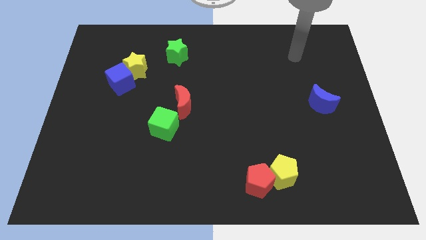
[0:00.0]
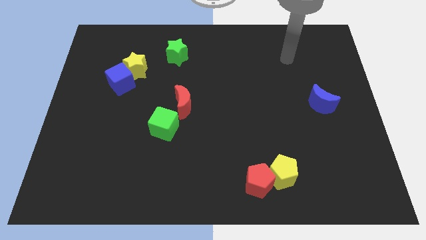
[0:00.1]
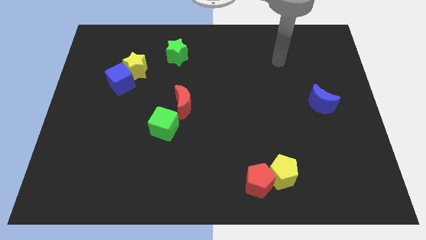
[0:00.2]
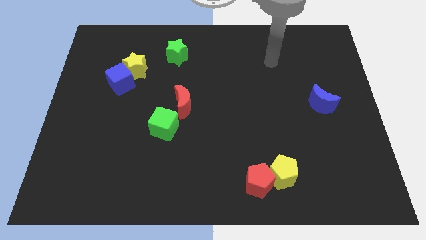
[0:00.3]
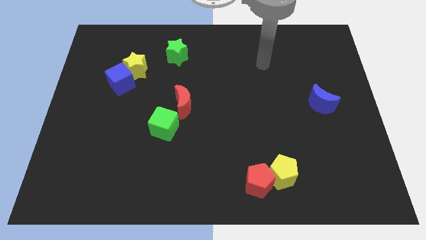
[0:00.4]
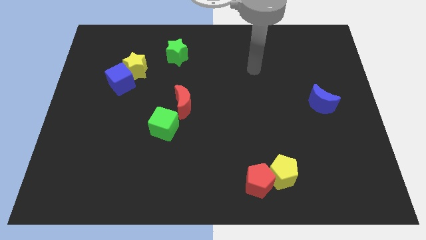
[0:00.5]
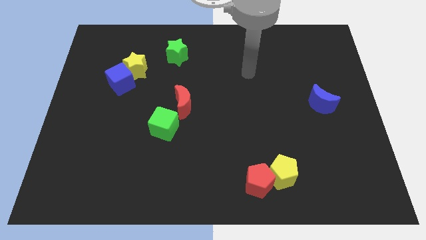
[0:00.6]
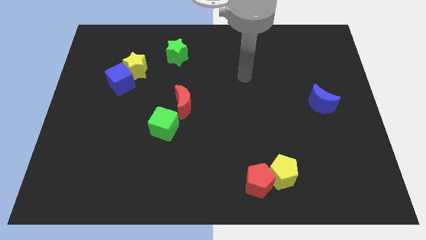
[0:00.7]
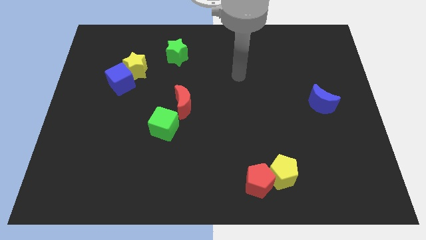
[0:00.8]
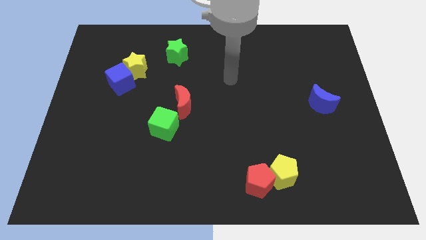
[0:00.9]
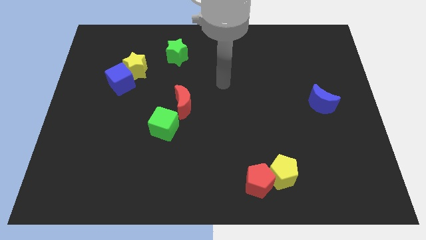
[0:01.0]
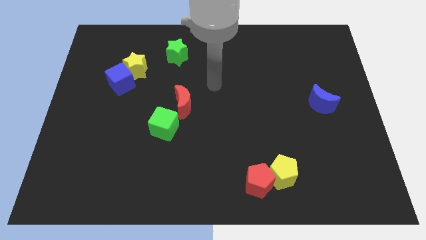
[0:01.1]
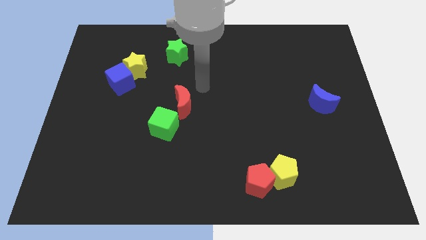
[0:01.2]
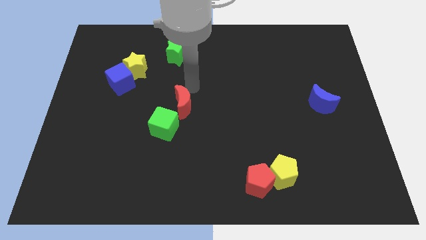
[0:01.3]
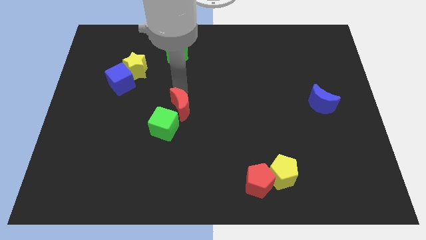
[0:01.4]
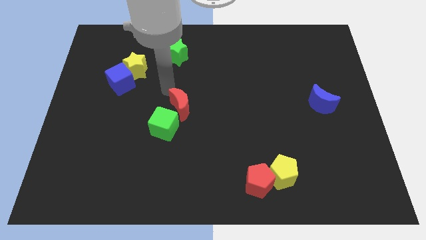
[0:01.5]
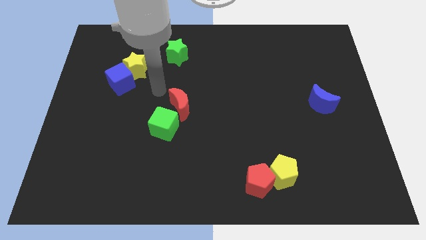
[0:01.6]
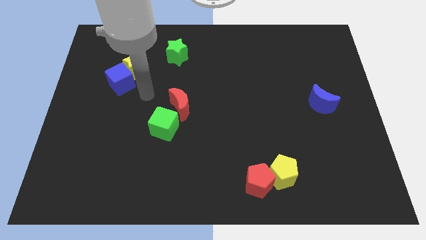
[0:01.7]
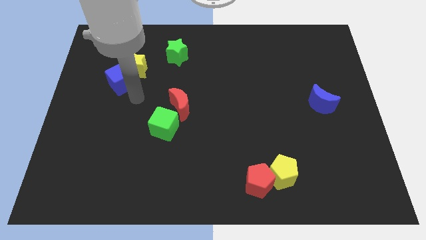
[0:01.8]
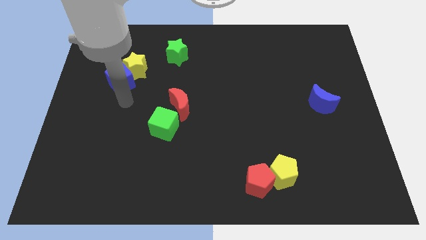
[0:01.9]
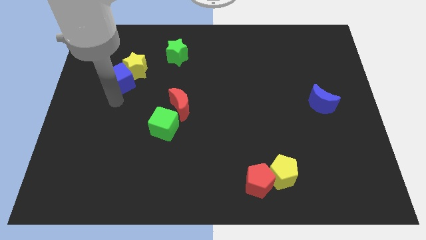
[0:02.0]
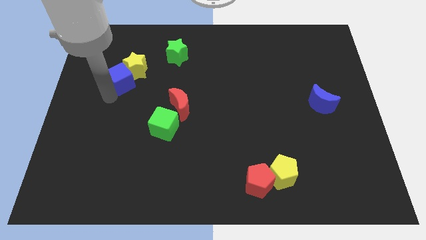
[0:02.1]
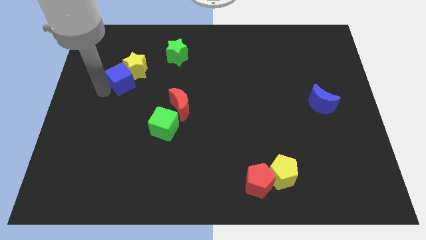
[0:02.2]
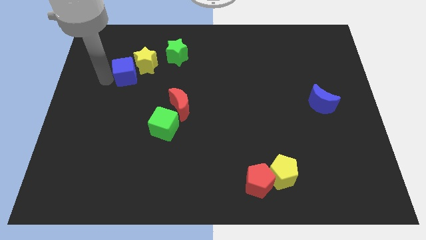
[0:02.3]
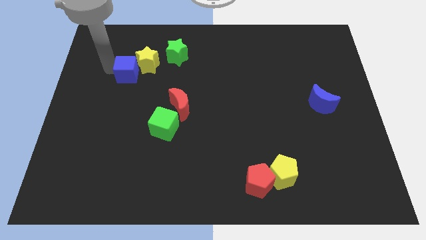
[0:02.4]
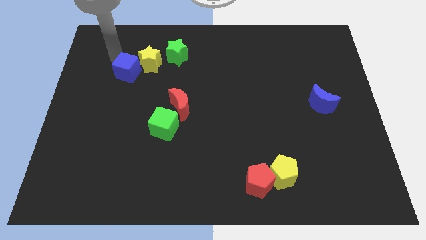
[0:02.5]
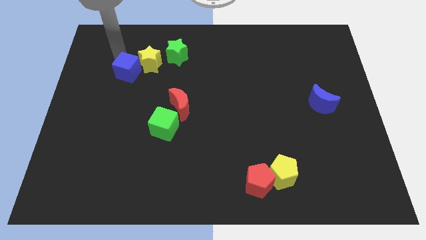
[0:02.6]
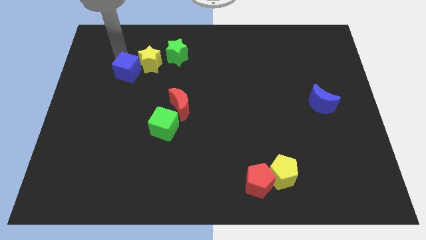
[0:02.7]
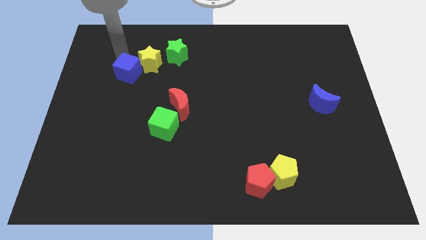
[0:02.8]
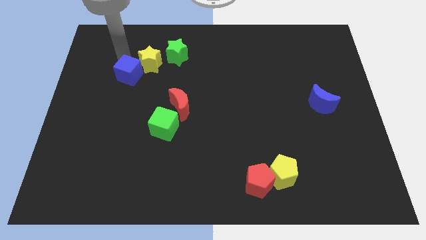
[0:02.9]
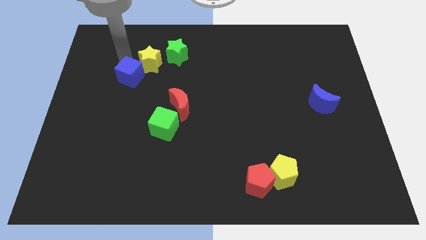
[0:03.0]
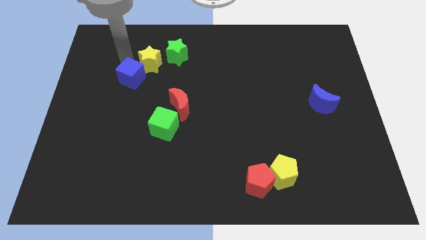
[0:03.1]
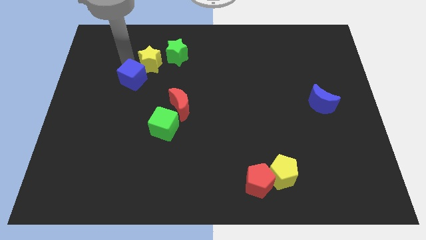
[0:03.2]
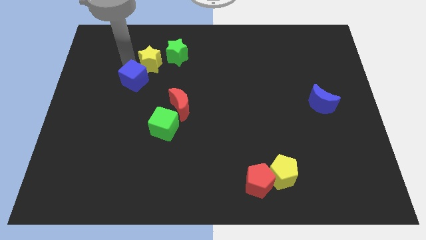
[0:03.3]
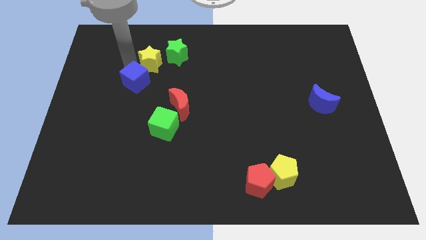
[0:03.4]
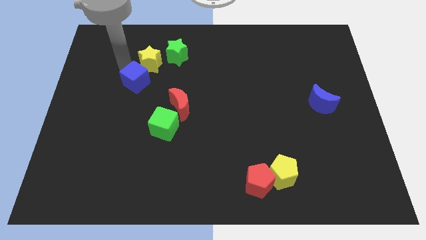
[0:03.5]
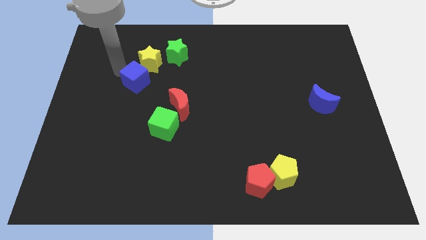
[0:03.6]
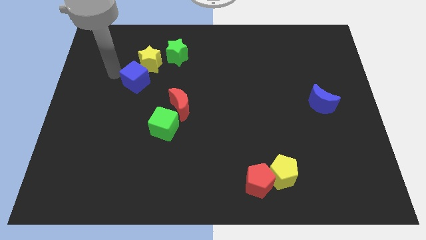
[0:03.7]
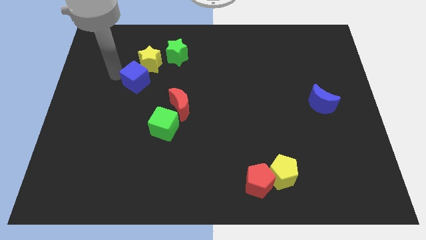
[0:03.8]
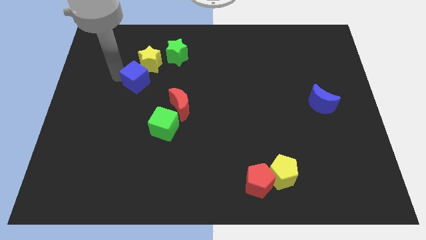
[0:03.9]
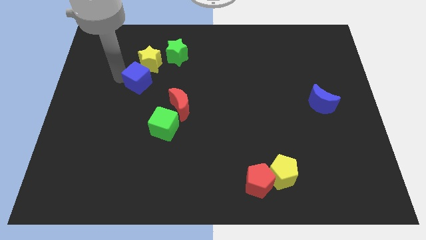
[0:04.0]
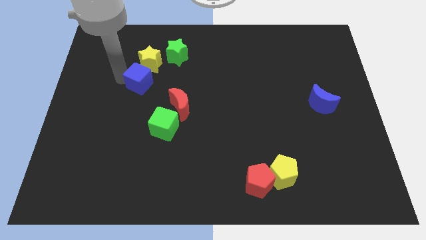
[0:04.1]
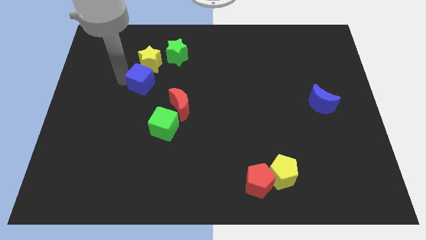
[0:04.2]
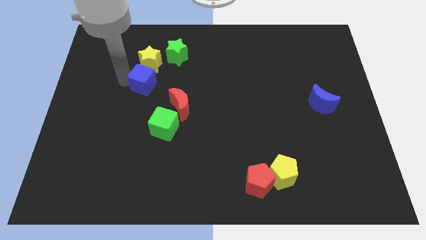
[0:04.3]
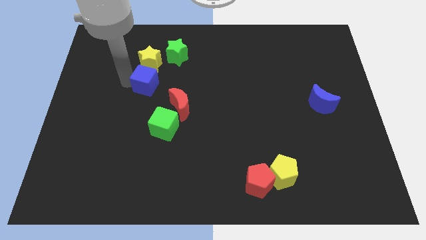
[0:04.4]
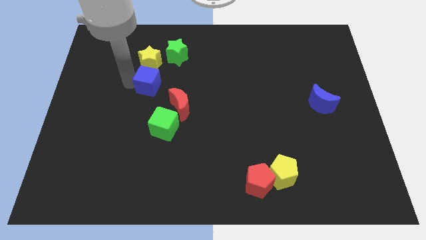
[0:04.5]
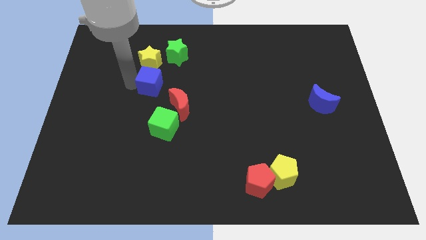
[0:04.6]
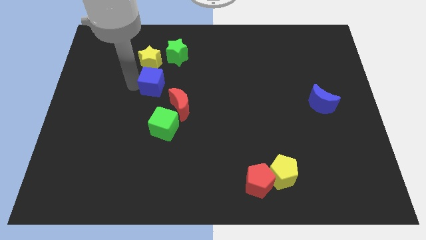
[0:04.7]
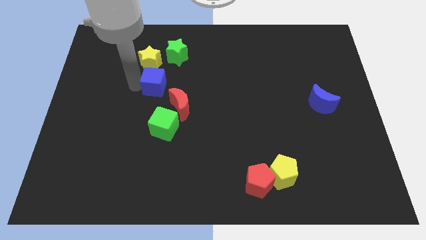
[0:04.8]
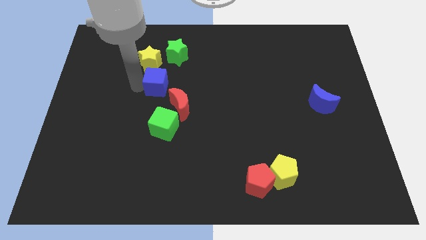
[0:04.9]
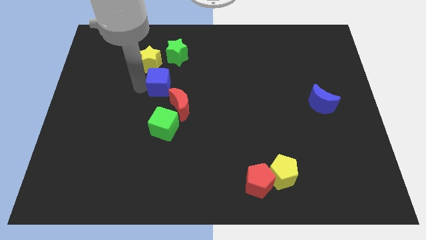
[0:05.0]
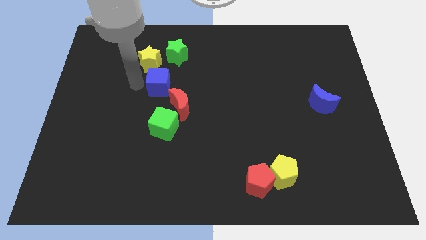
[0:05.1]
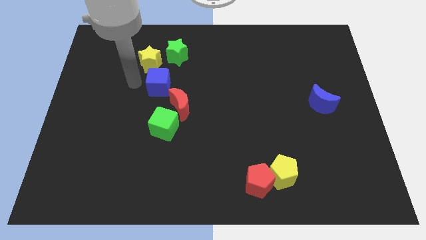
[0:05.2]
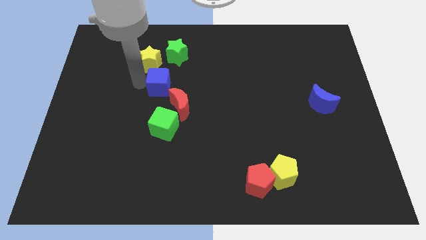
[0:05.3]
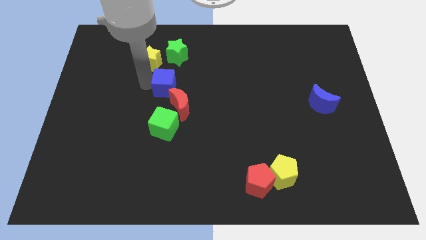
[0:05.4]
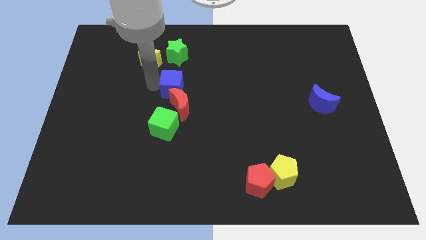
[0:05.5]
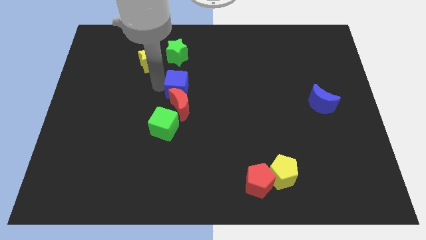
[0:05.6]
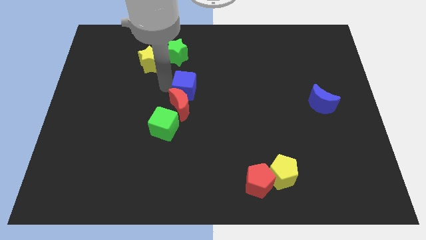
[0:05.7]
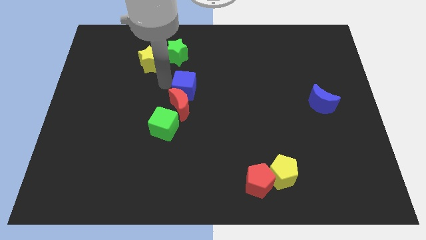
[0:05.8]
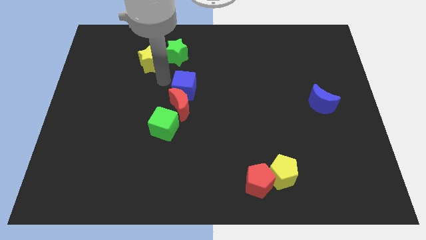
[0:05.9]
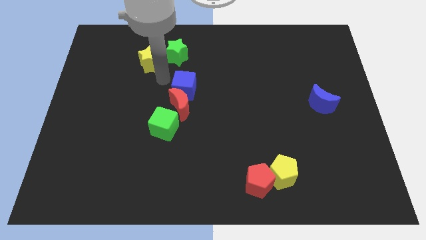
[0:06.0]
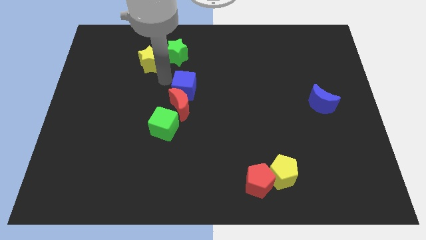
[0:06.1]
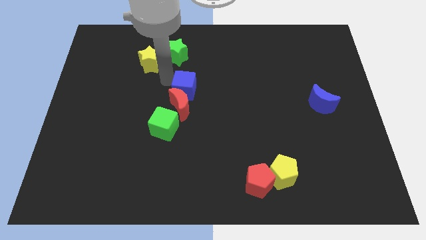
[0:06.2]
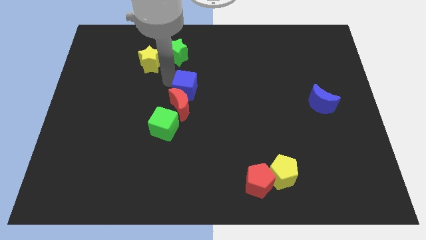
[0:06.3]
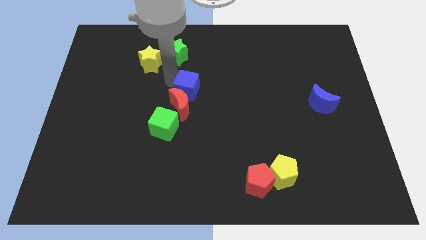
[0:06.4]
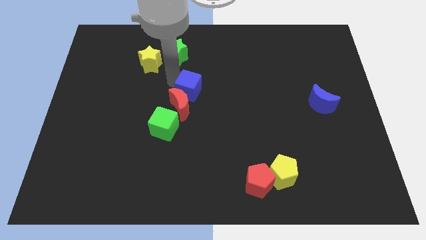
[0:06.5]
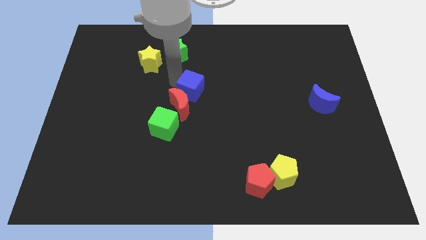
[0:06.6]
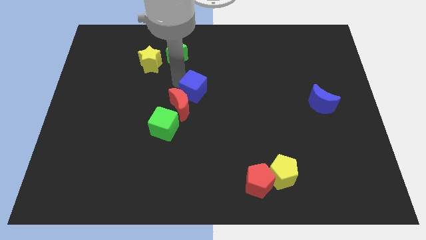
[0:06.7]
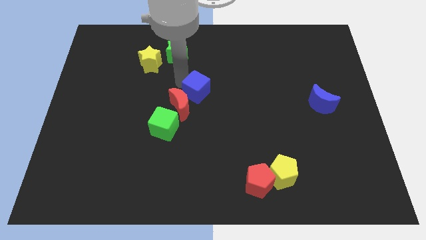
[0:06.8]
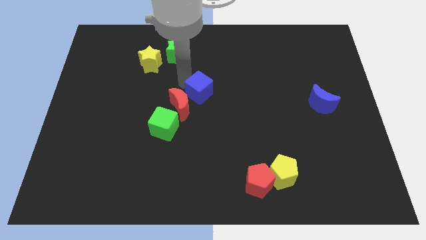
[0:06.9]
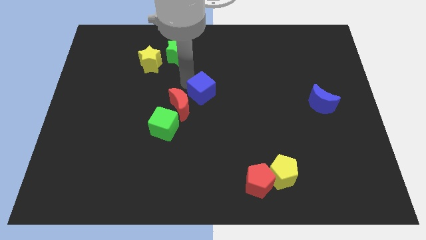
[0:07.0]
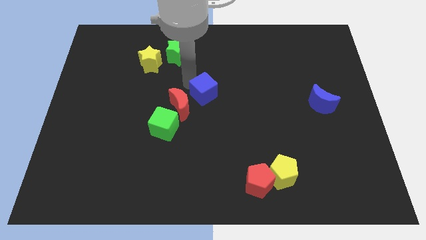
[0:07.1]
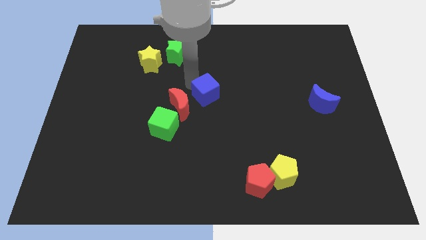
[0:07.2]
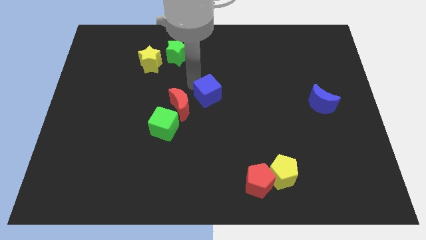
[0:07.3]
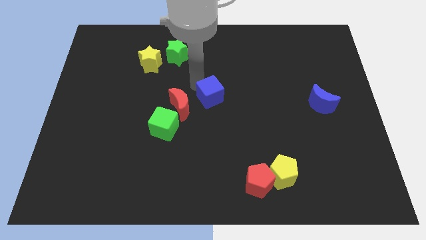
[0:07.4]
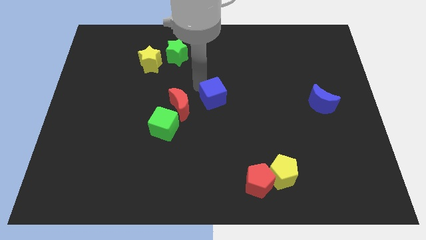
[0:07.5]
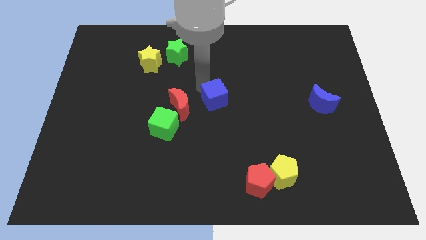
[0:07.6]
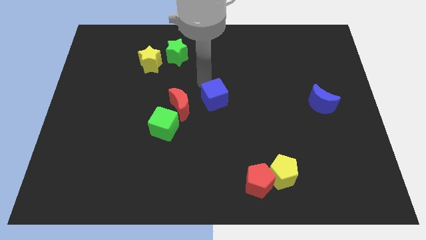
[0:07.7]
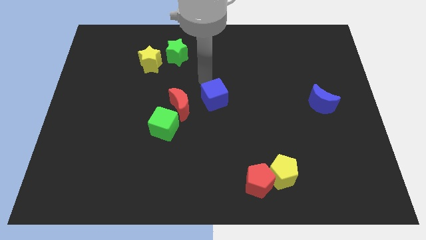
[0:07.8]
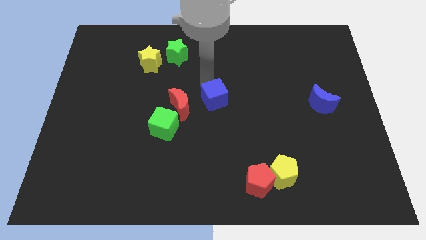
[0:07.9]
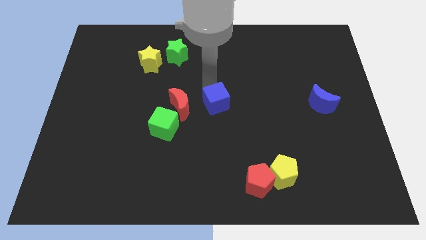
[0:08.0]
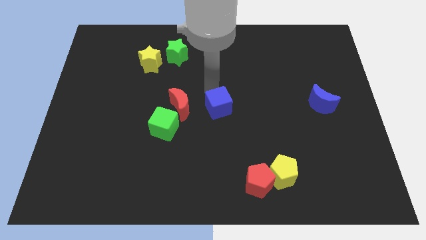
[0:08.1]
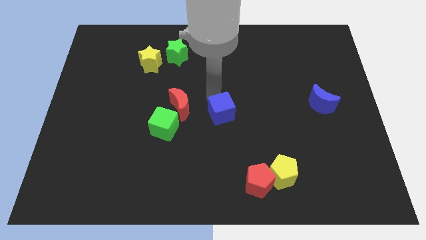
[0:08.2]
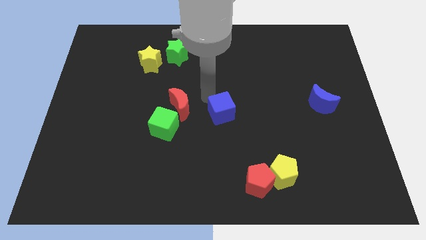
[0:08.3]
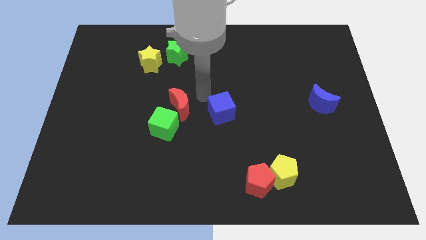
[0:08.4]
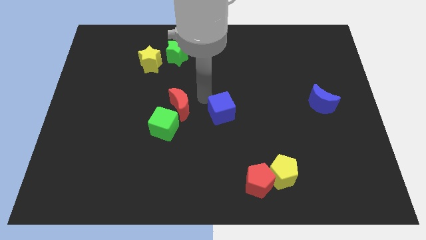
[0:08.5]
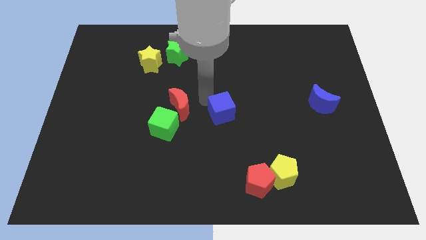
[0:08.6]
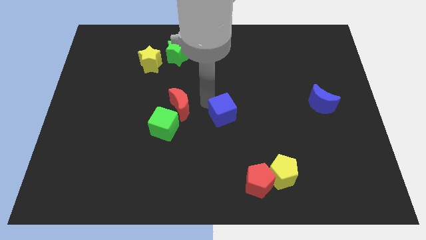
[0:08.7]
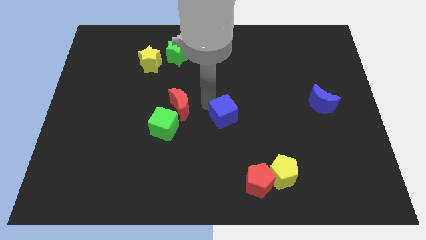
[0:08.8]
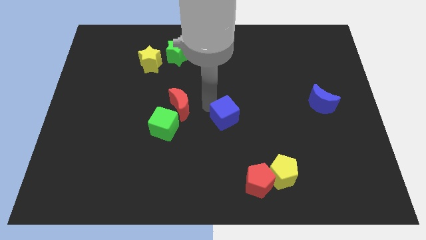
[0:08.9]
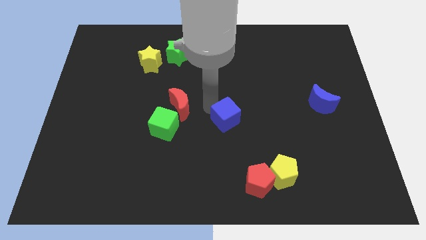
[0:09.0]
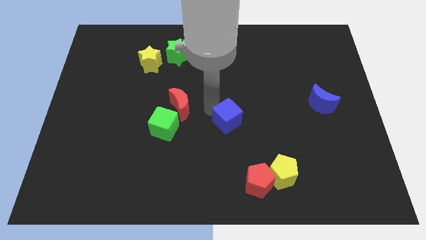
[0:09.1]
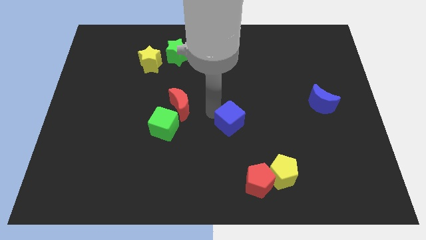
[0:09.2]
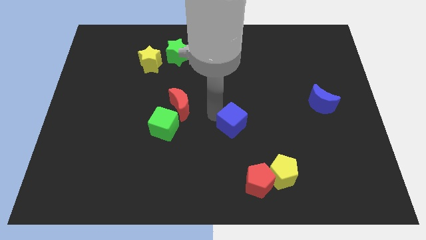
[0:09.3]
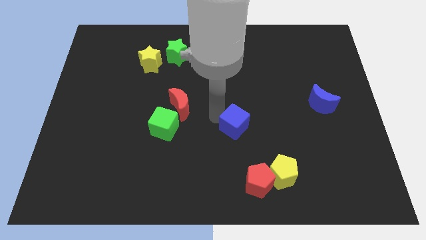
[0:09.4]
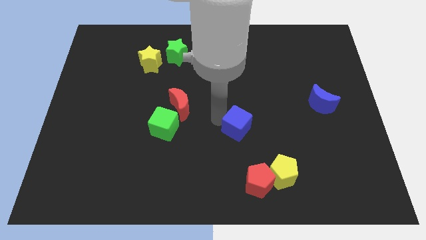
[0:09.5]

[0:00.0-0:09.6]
move the blue cube to the top of the red pentagon
